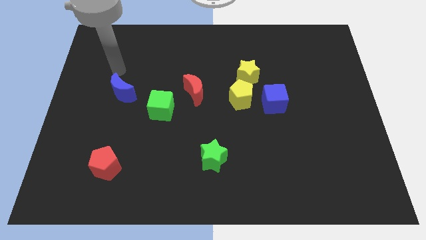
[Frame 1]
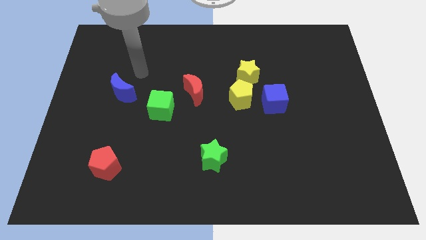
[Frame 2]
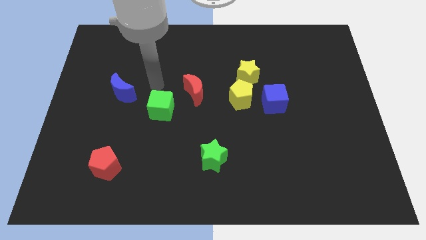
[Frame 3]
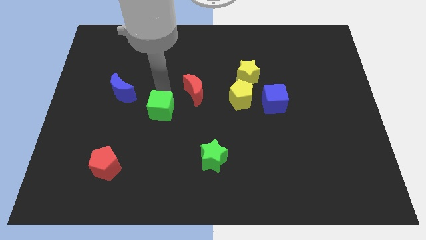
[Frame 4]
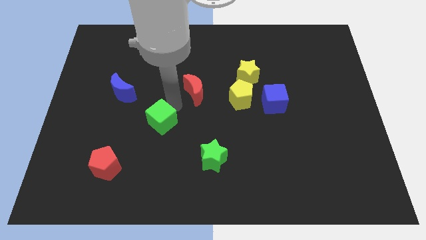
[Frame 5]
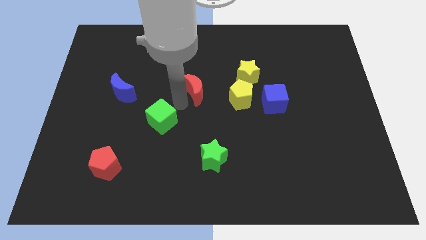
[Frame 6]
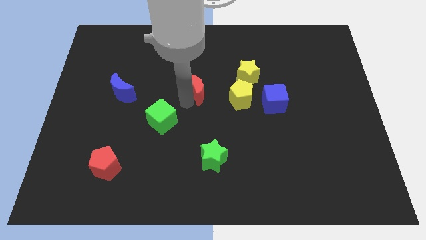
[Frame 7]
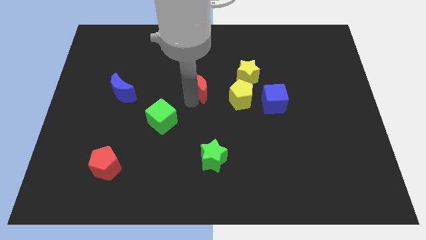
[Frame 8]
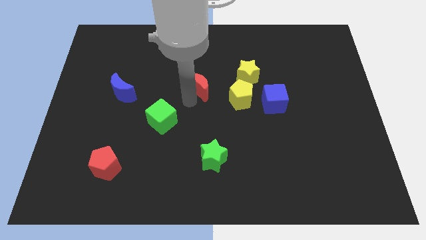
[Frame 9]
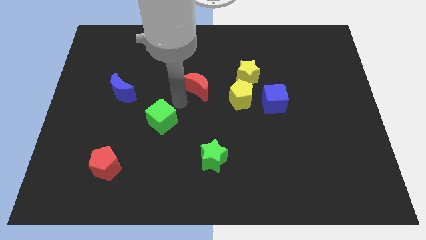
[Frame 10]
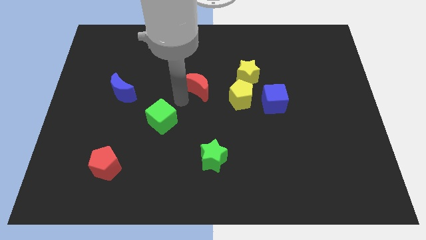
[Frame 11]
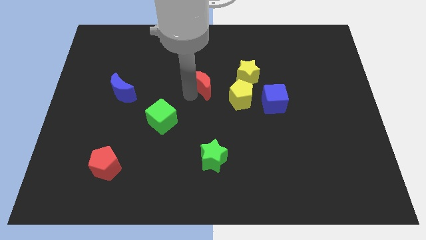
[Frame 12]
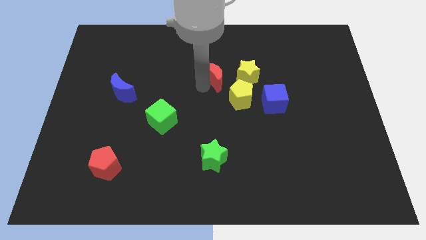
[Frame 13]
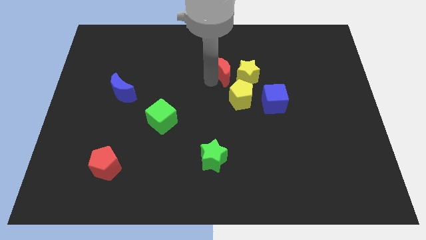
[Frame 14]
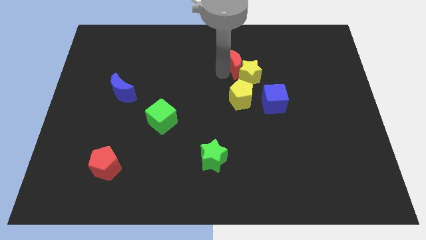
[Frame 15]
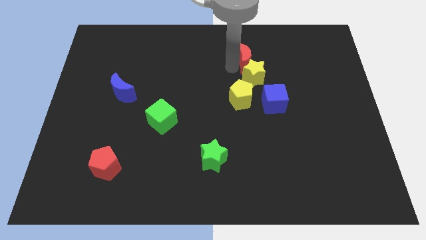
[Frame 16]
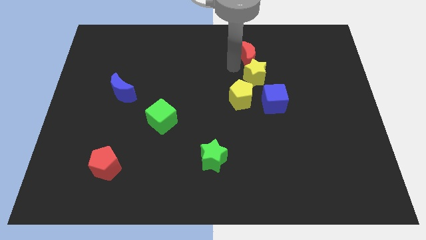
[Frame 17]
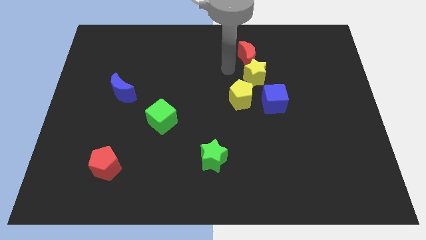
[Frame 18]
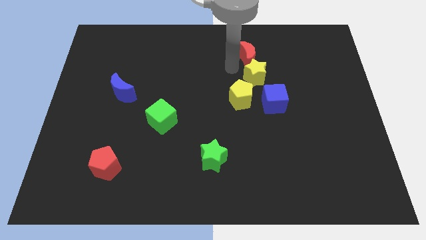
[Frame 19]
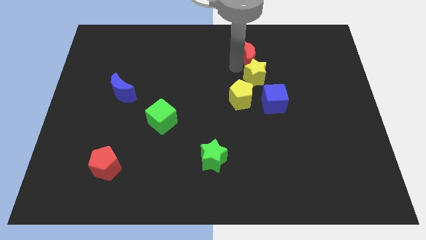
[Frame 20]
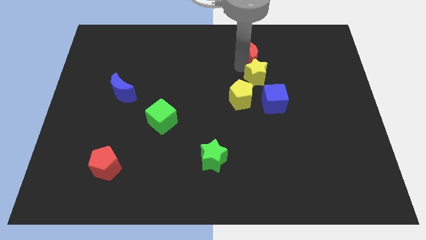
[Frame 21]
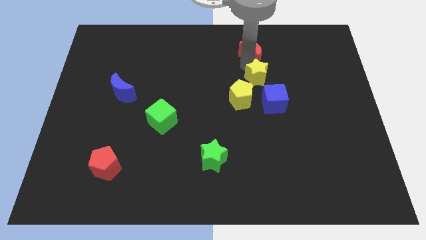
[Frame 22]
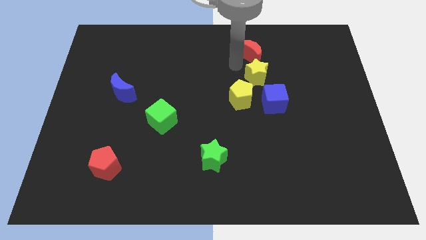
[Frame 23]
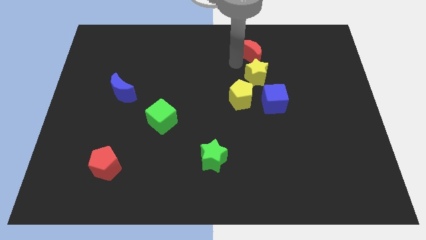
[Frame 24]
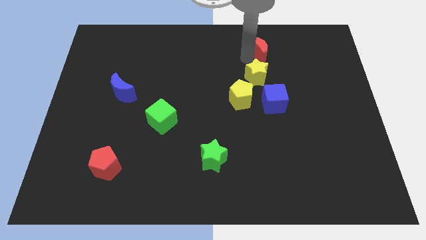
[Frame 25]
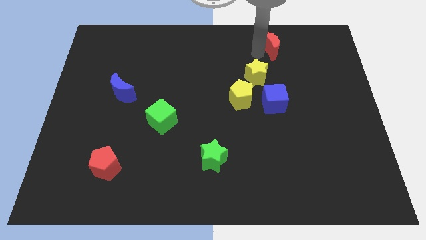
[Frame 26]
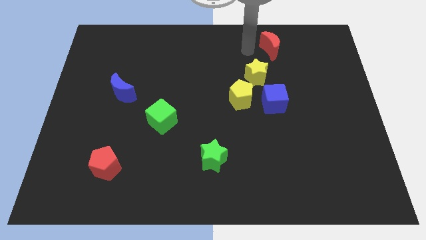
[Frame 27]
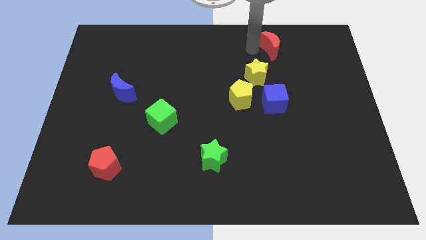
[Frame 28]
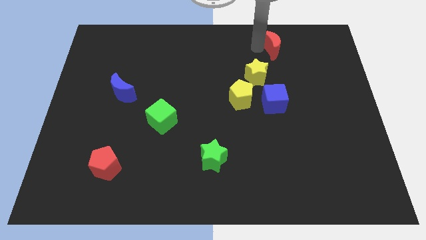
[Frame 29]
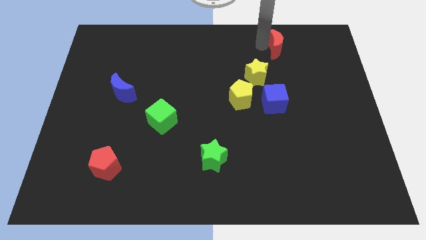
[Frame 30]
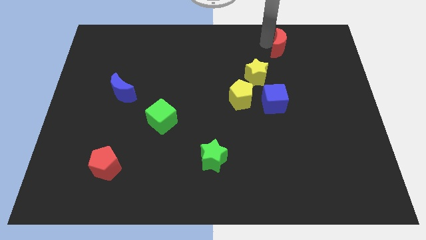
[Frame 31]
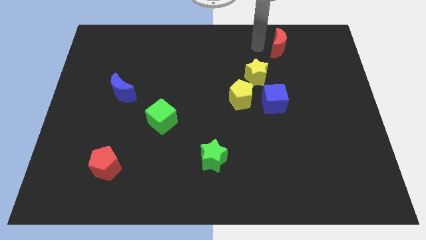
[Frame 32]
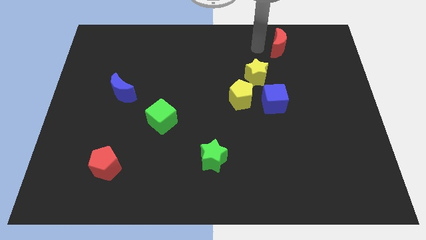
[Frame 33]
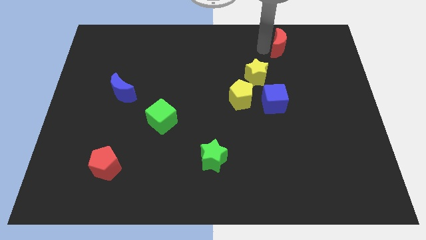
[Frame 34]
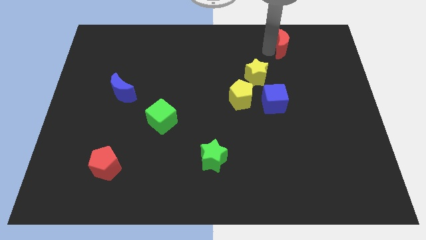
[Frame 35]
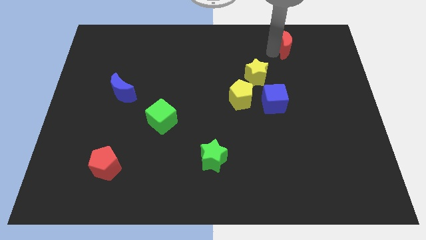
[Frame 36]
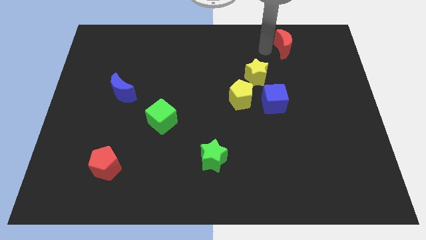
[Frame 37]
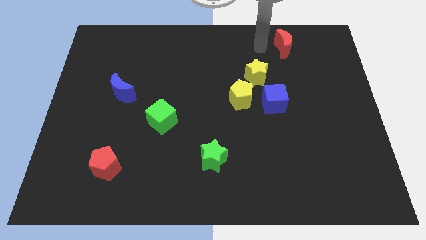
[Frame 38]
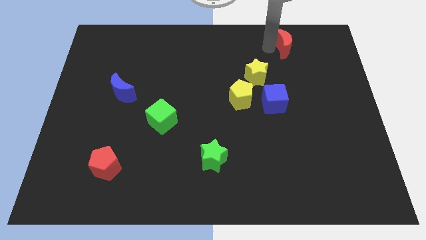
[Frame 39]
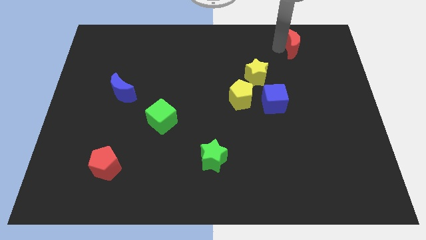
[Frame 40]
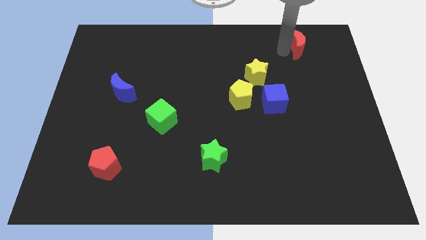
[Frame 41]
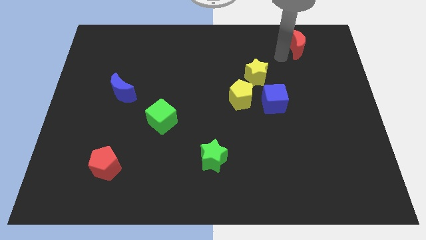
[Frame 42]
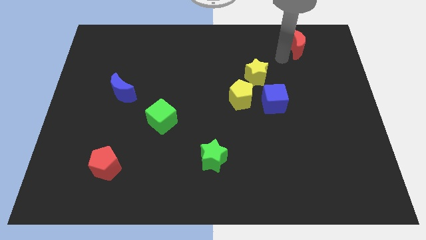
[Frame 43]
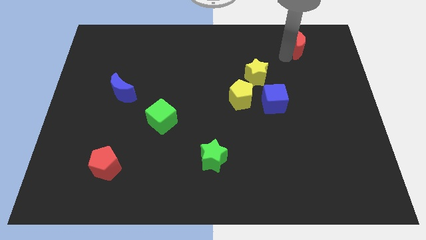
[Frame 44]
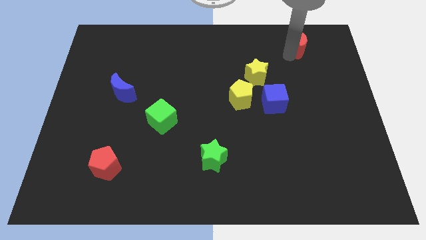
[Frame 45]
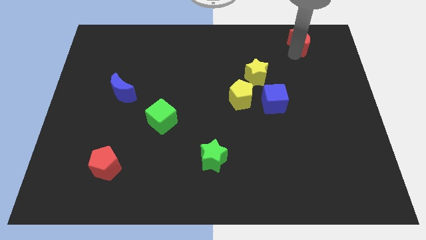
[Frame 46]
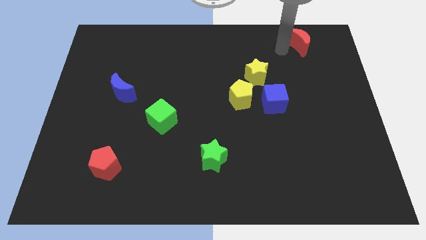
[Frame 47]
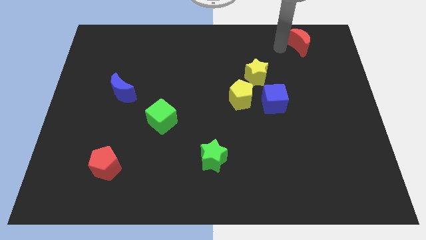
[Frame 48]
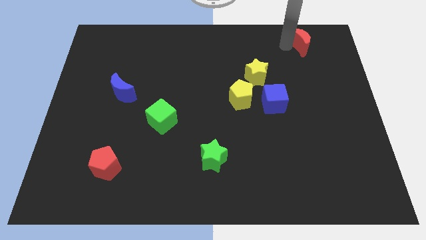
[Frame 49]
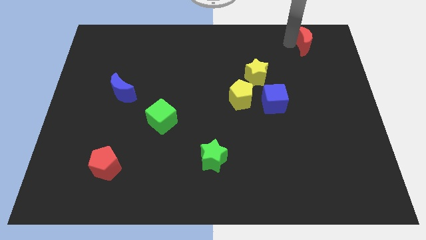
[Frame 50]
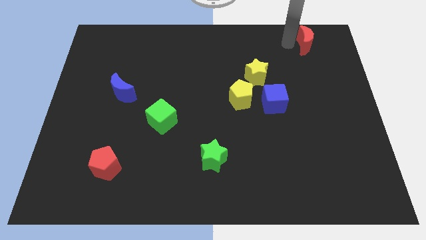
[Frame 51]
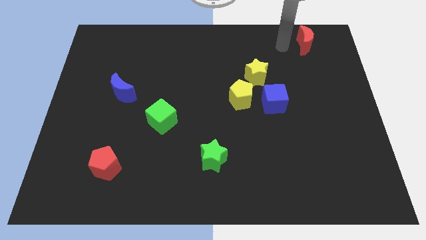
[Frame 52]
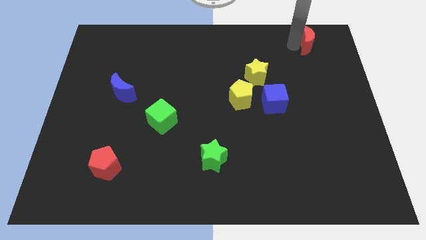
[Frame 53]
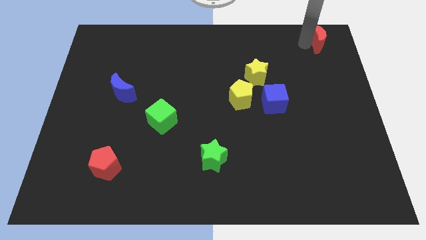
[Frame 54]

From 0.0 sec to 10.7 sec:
slide the red moon to the top right

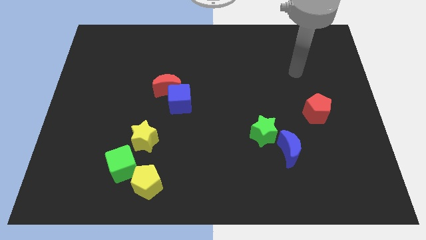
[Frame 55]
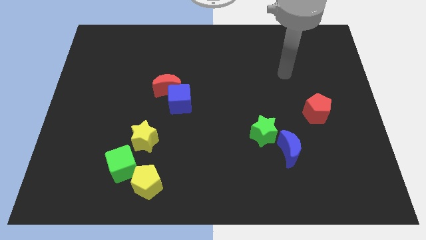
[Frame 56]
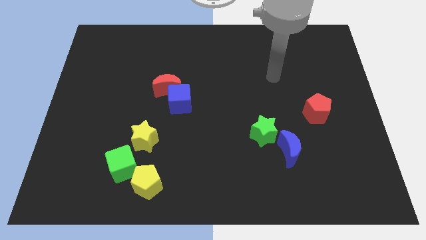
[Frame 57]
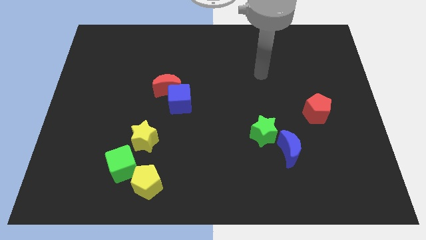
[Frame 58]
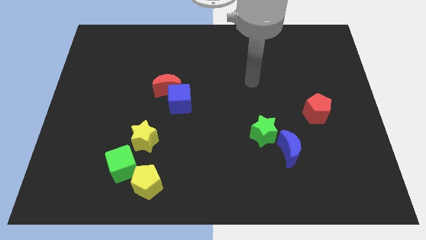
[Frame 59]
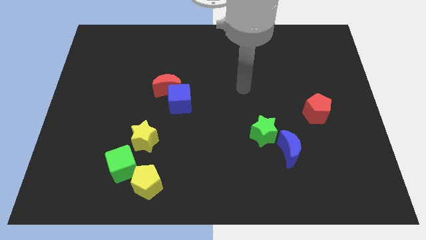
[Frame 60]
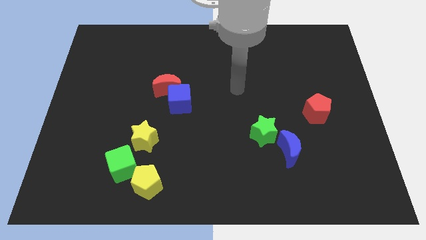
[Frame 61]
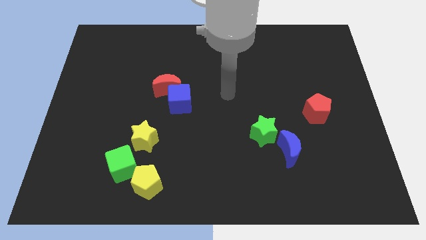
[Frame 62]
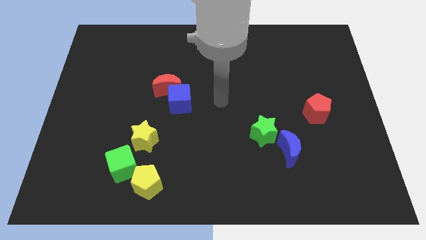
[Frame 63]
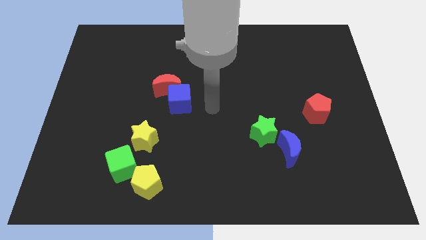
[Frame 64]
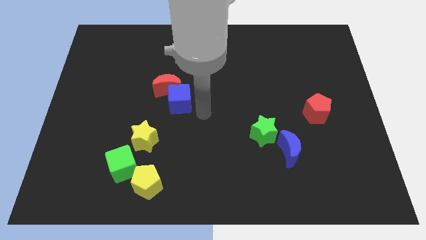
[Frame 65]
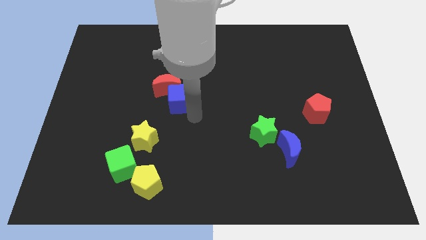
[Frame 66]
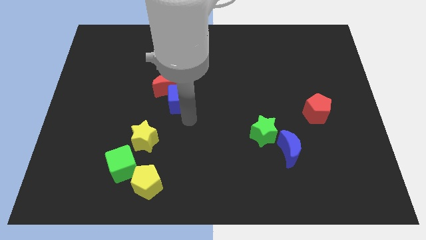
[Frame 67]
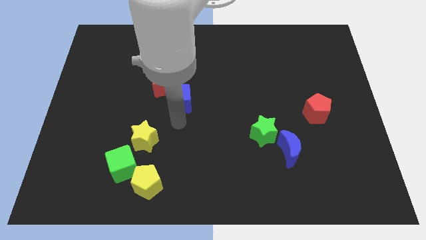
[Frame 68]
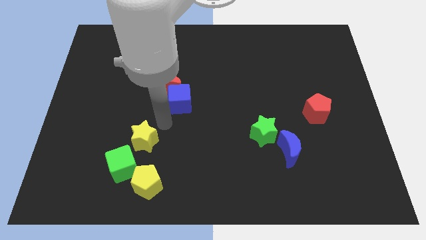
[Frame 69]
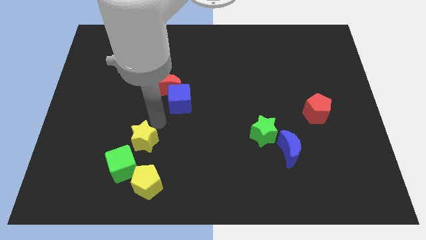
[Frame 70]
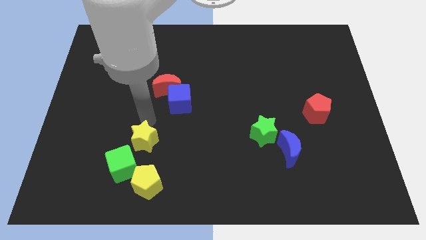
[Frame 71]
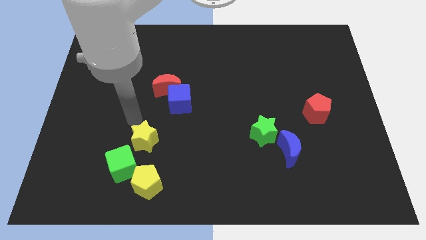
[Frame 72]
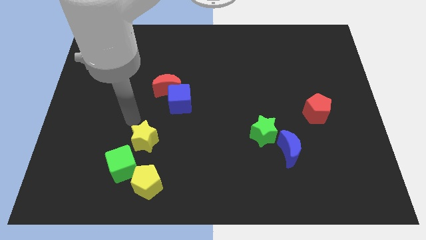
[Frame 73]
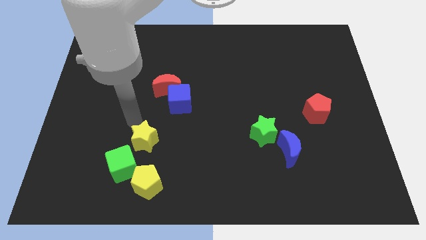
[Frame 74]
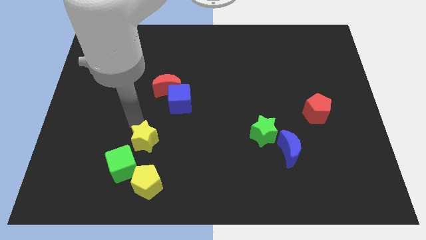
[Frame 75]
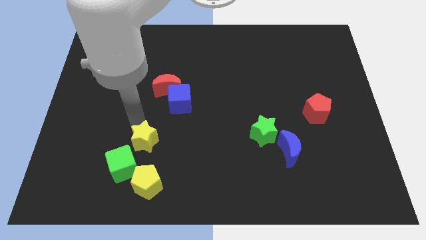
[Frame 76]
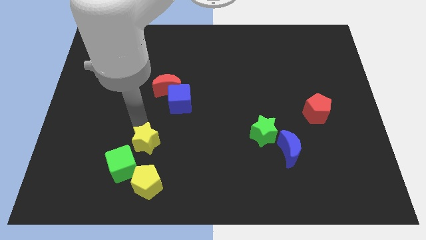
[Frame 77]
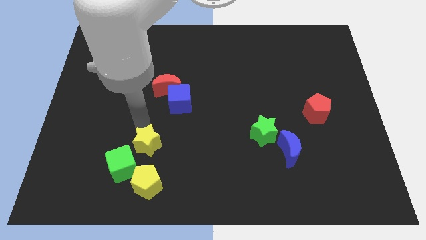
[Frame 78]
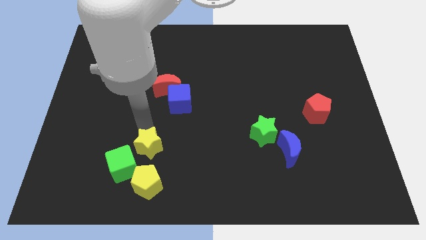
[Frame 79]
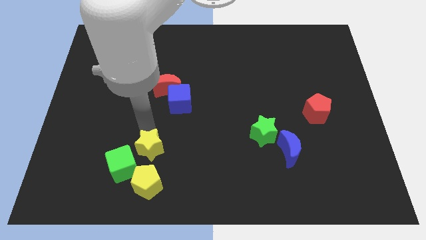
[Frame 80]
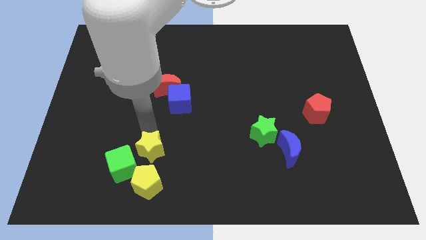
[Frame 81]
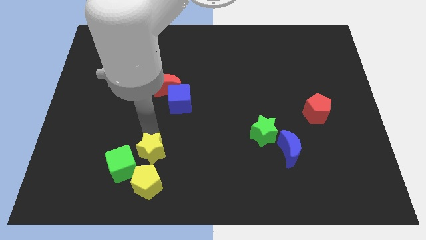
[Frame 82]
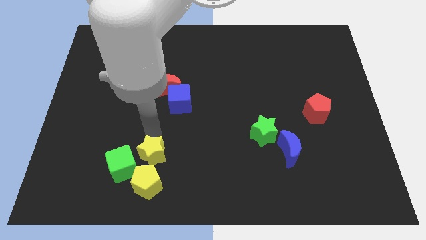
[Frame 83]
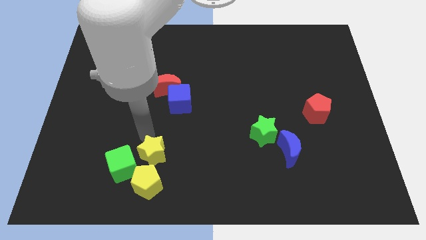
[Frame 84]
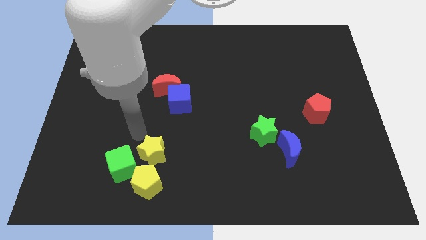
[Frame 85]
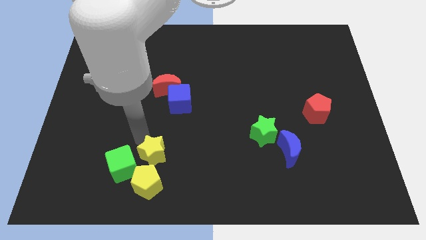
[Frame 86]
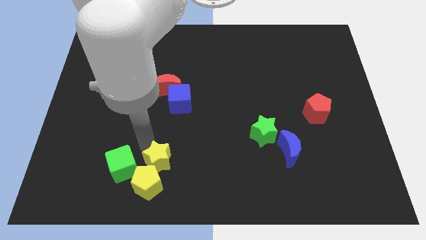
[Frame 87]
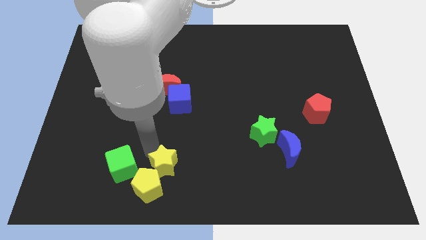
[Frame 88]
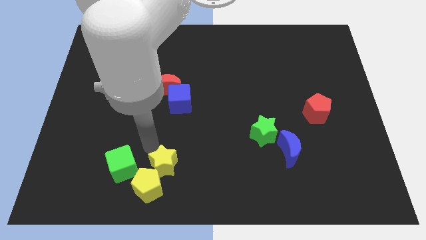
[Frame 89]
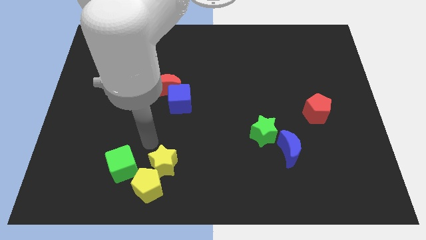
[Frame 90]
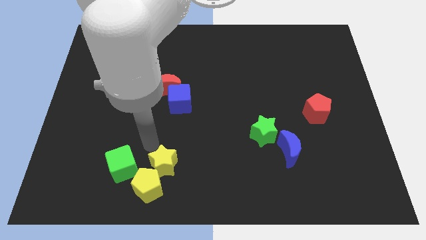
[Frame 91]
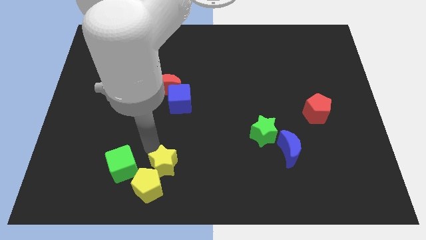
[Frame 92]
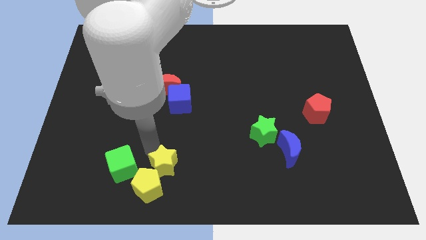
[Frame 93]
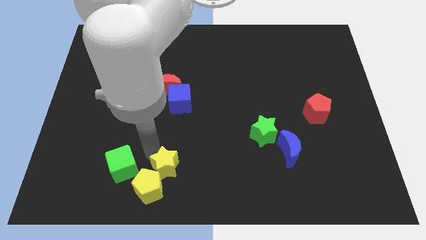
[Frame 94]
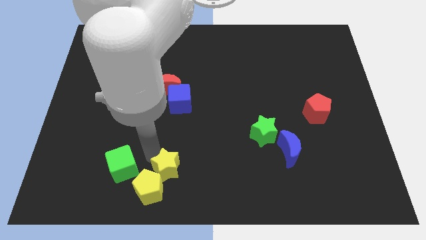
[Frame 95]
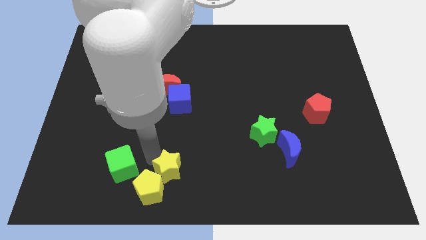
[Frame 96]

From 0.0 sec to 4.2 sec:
push the yellow star to the bottom side
